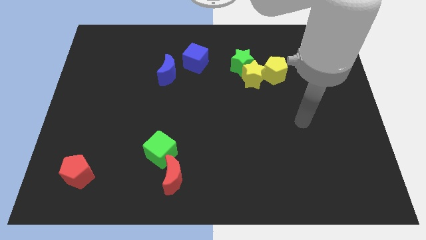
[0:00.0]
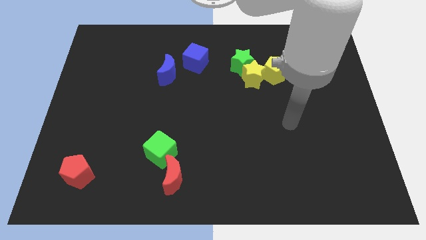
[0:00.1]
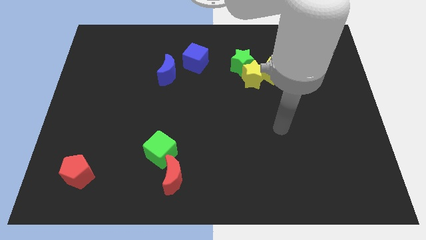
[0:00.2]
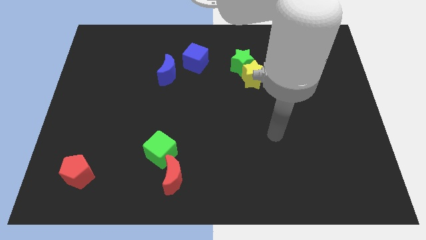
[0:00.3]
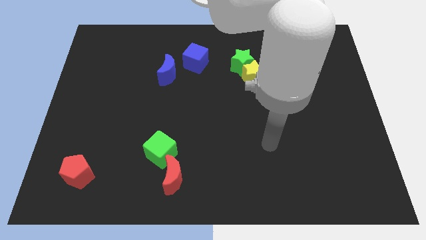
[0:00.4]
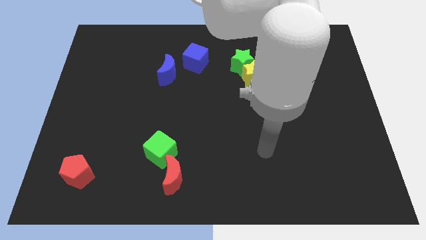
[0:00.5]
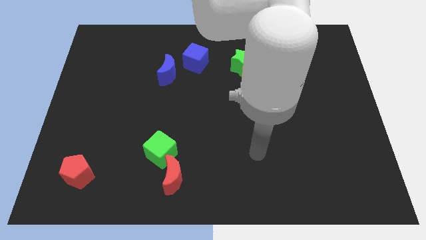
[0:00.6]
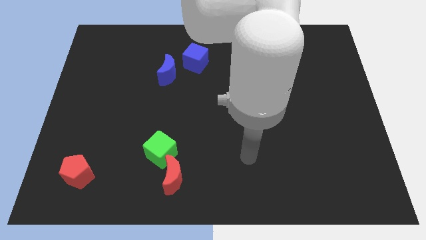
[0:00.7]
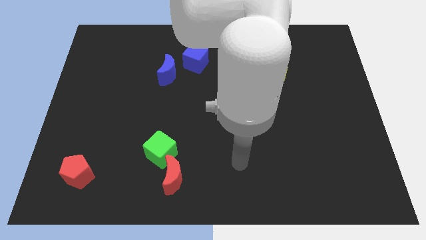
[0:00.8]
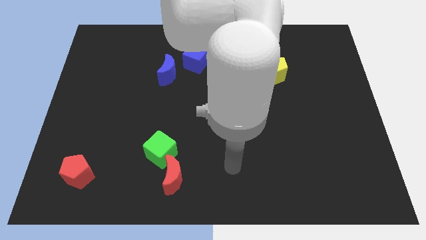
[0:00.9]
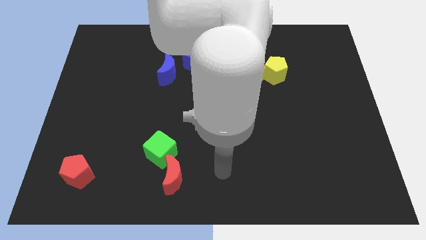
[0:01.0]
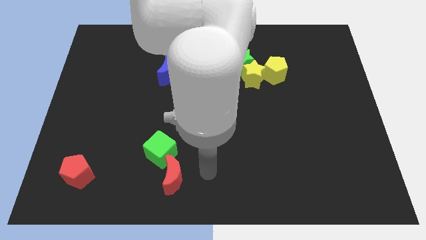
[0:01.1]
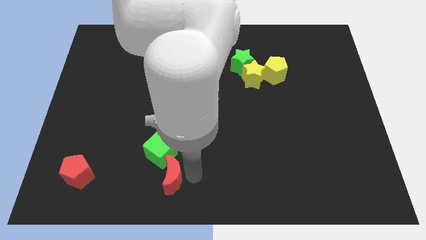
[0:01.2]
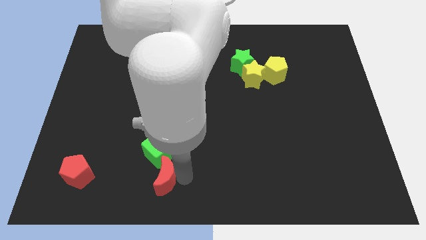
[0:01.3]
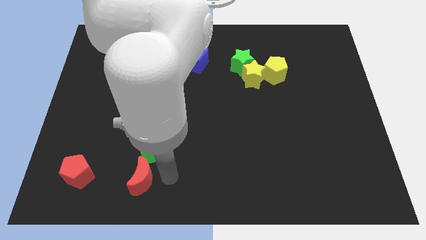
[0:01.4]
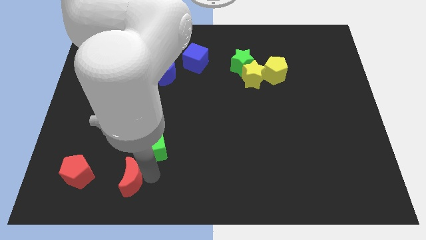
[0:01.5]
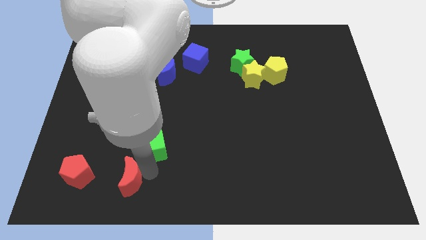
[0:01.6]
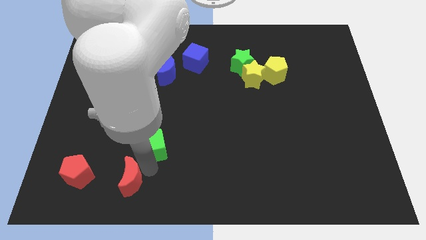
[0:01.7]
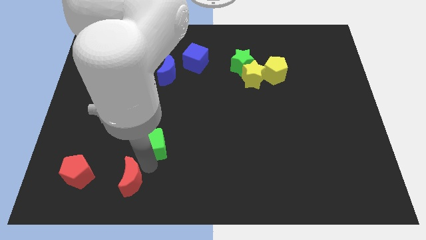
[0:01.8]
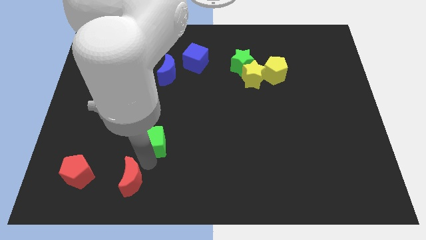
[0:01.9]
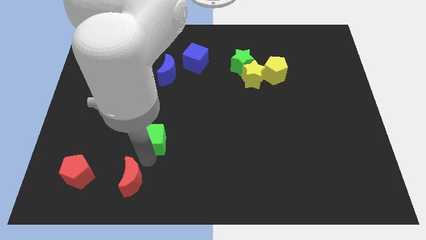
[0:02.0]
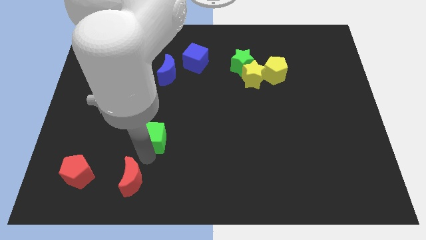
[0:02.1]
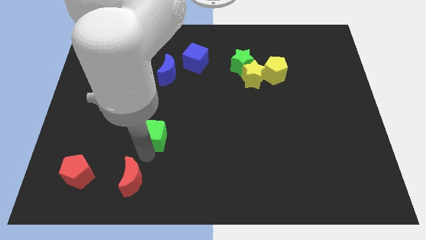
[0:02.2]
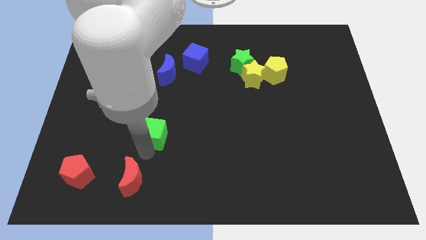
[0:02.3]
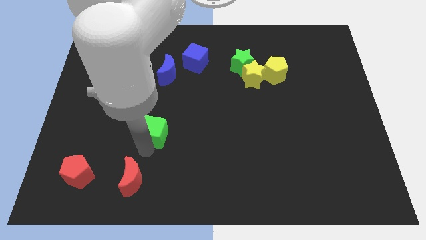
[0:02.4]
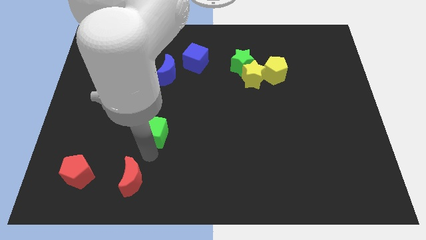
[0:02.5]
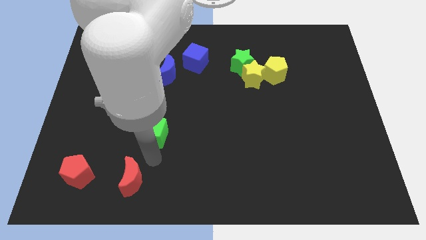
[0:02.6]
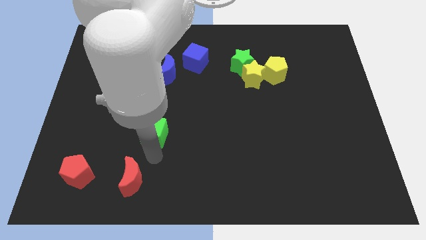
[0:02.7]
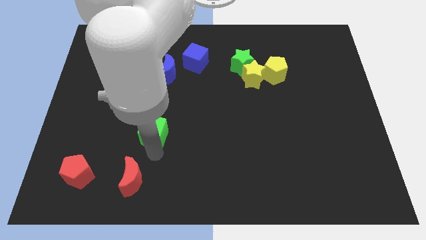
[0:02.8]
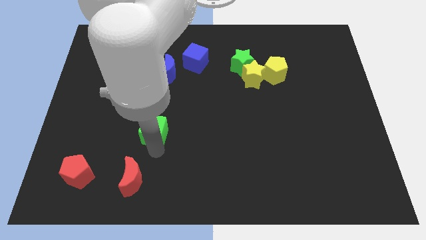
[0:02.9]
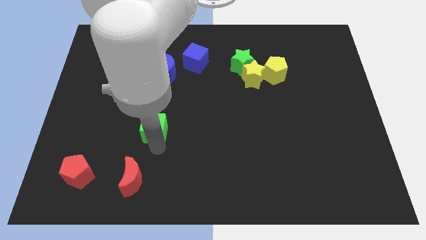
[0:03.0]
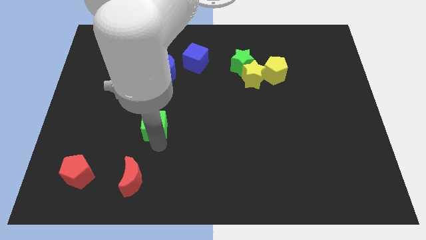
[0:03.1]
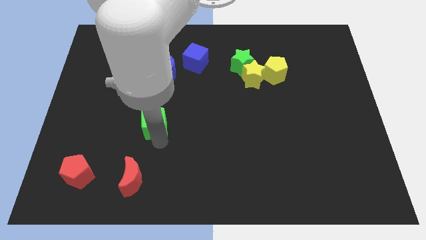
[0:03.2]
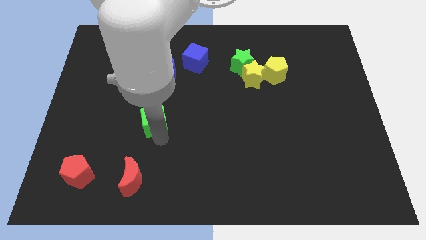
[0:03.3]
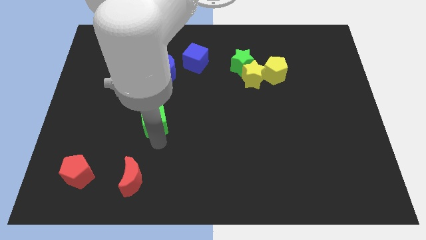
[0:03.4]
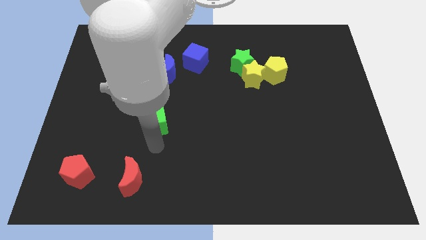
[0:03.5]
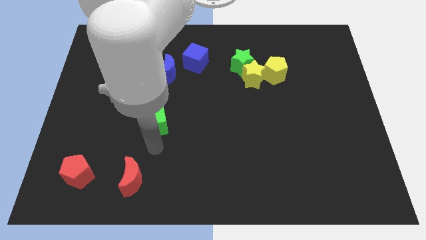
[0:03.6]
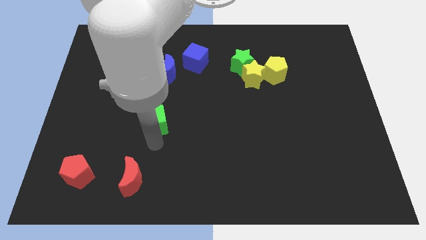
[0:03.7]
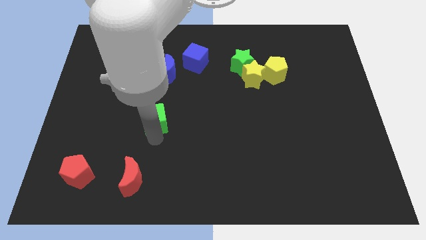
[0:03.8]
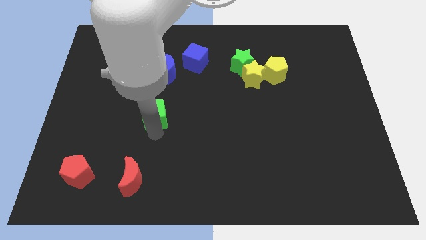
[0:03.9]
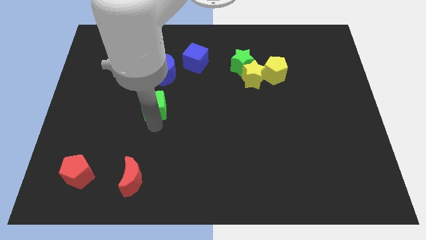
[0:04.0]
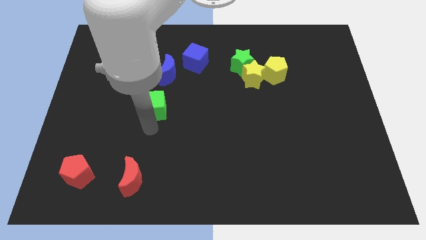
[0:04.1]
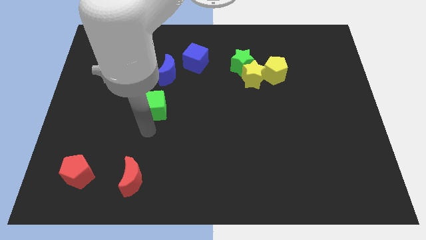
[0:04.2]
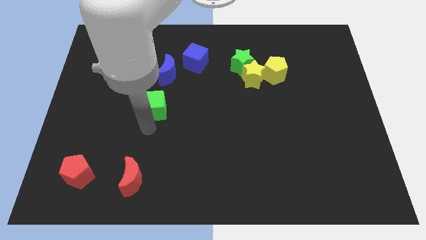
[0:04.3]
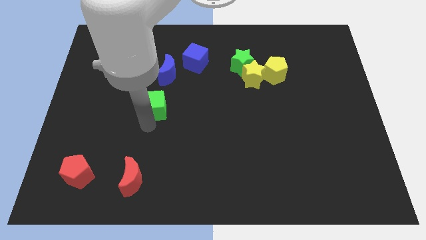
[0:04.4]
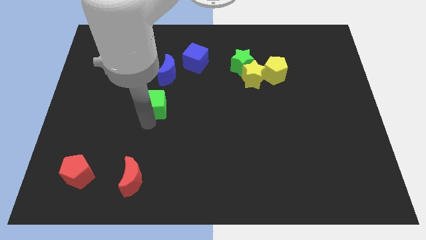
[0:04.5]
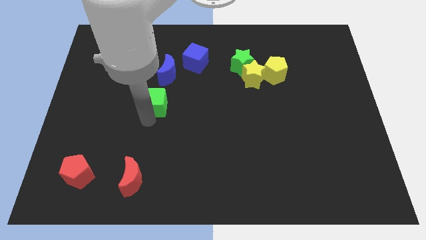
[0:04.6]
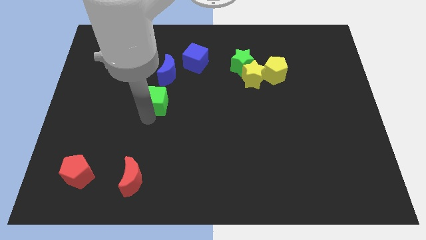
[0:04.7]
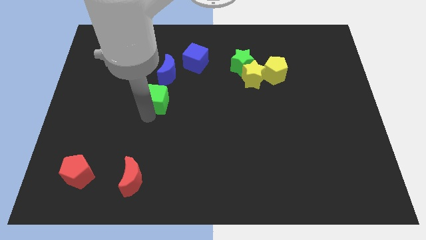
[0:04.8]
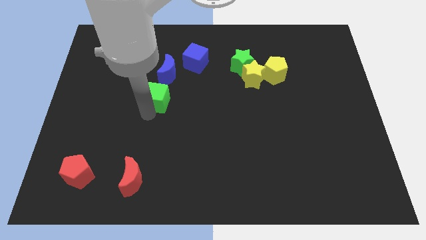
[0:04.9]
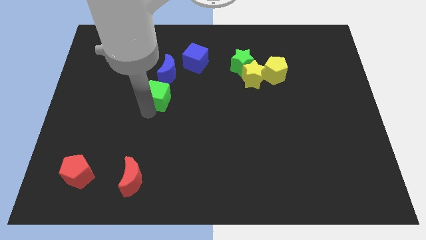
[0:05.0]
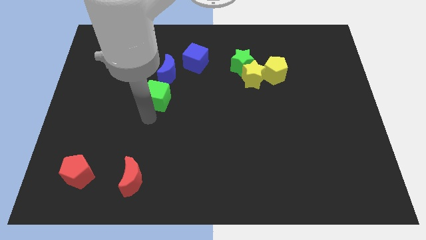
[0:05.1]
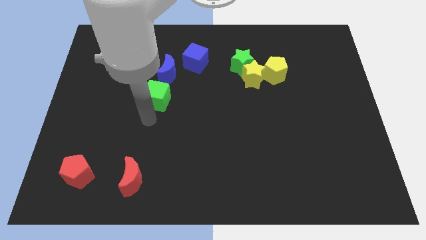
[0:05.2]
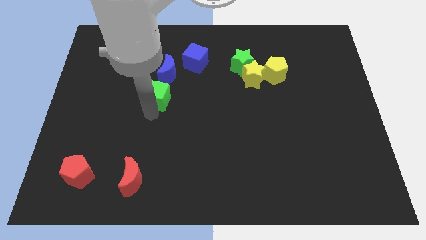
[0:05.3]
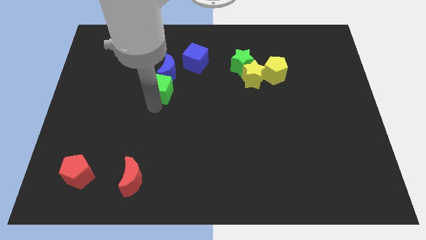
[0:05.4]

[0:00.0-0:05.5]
put the green cube close to the blue moon

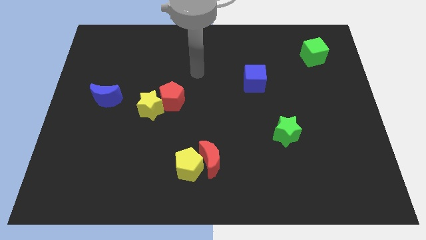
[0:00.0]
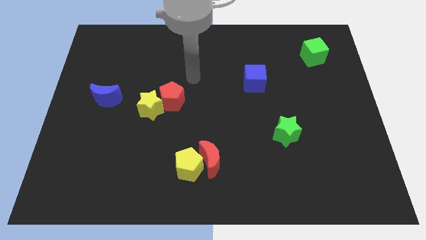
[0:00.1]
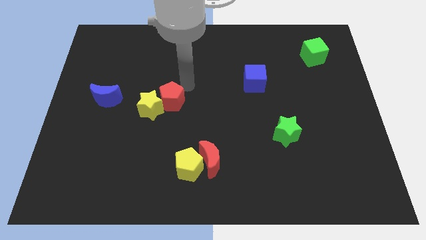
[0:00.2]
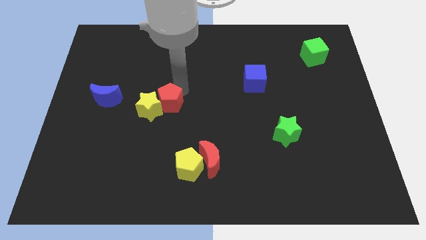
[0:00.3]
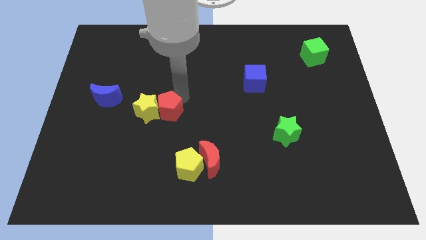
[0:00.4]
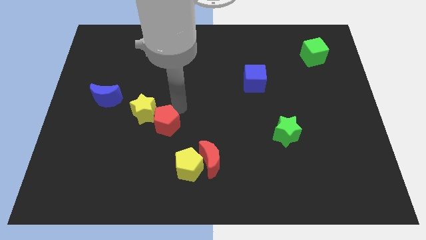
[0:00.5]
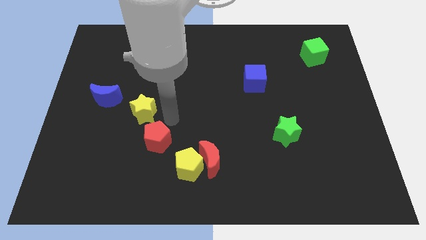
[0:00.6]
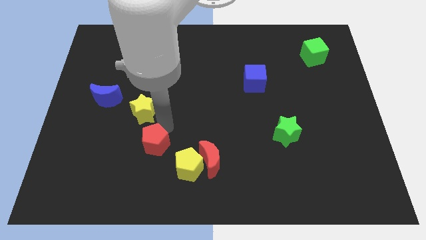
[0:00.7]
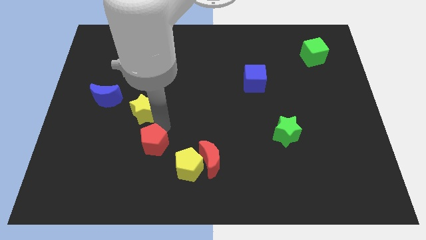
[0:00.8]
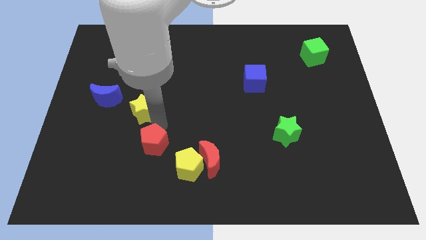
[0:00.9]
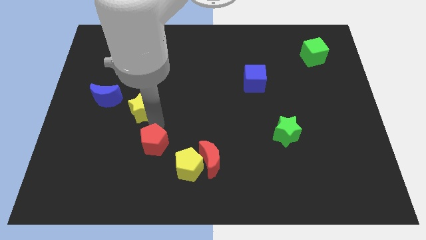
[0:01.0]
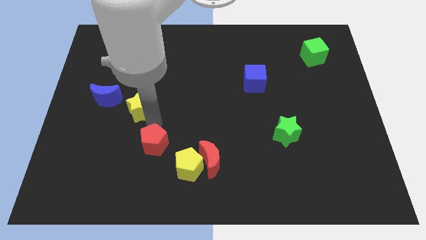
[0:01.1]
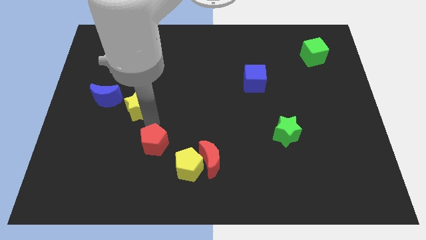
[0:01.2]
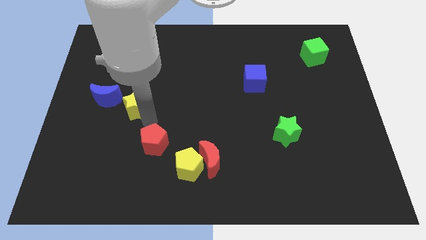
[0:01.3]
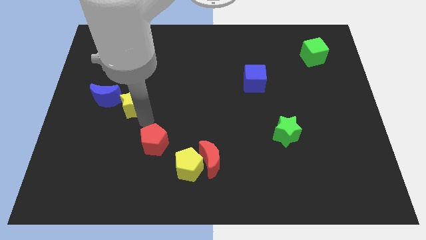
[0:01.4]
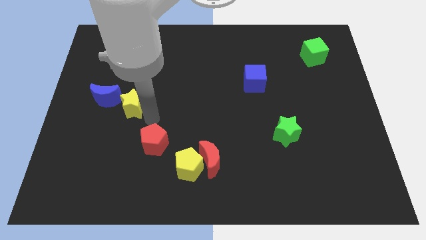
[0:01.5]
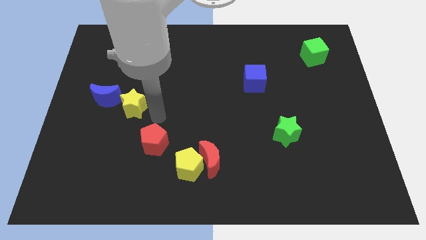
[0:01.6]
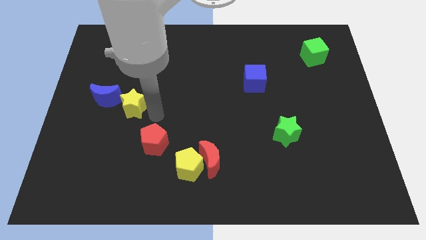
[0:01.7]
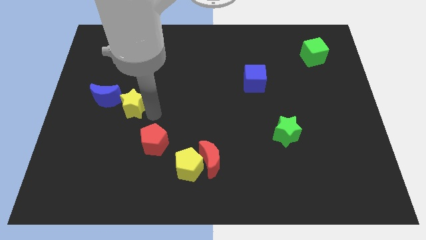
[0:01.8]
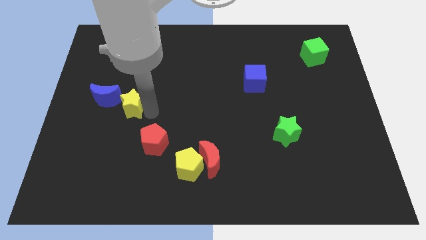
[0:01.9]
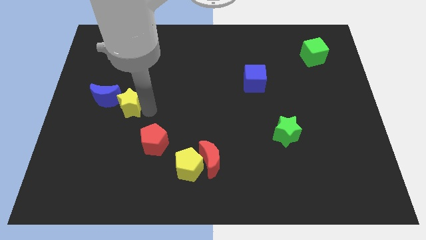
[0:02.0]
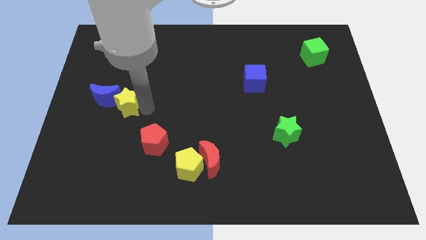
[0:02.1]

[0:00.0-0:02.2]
slide the yellow star close to the blue moon

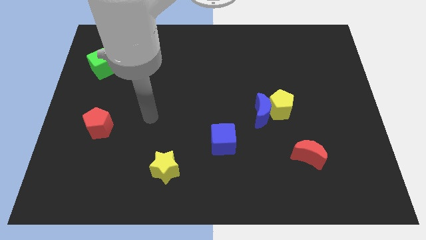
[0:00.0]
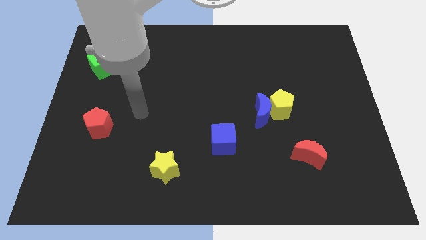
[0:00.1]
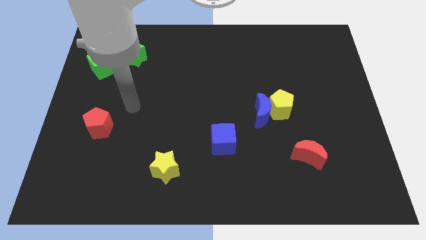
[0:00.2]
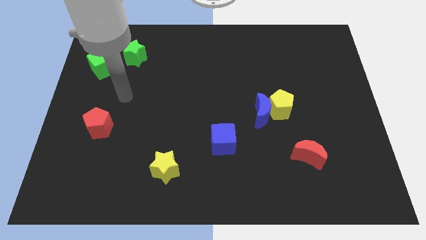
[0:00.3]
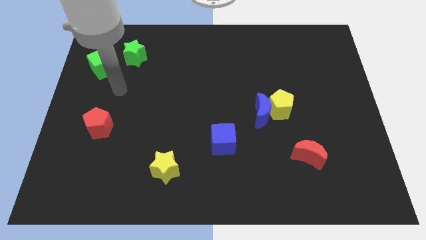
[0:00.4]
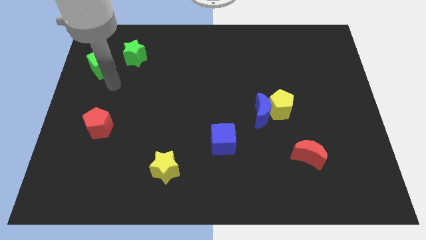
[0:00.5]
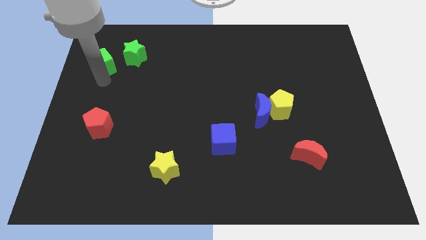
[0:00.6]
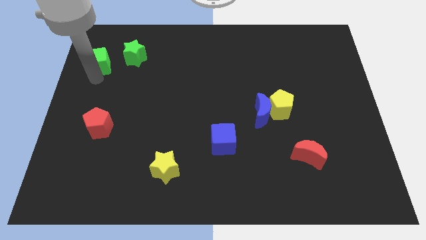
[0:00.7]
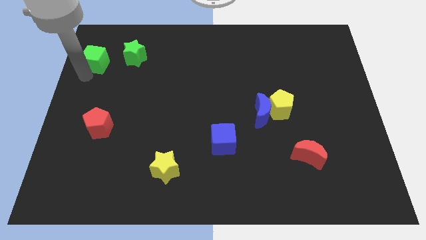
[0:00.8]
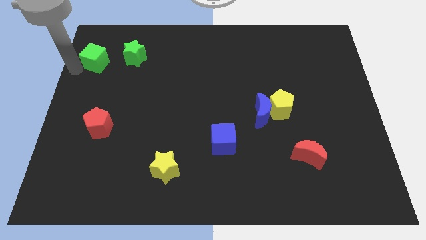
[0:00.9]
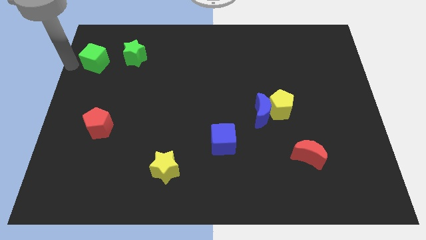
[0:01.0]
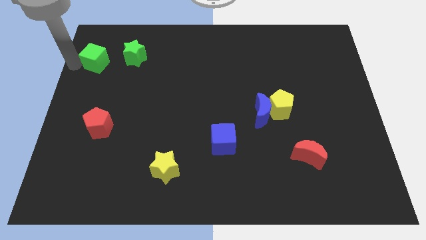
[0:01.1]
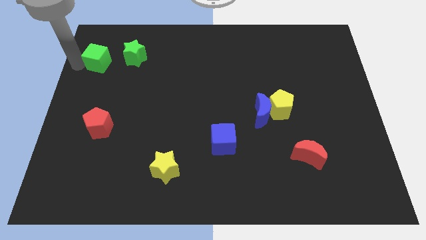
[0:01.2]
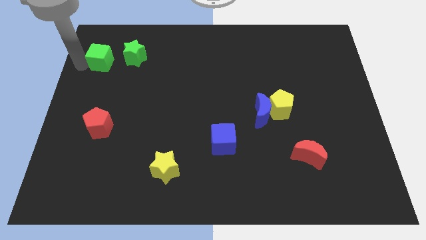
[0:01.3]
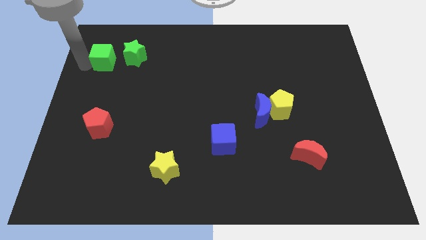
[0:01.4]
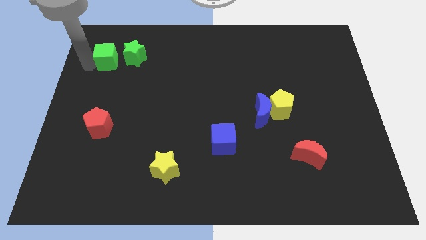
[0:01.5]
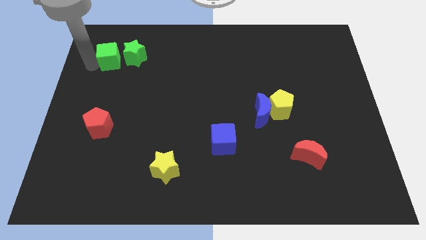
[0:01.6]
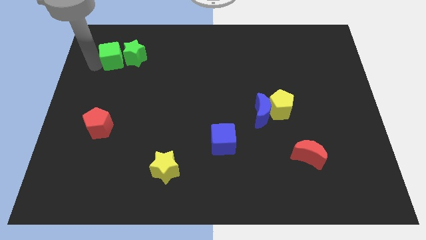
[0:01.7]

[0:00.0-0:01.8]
push the green cube to the green star
